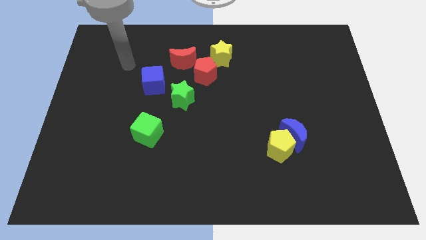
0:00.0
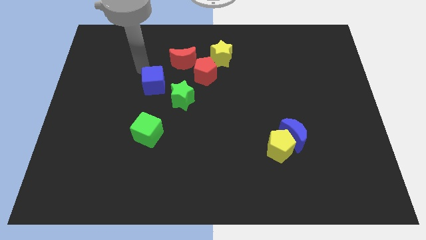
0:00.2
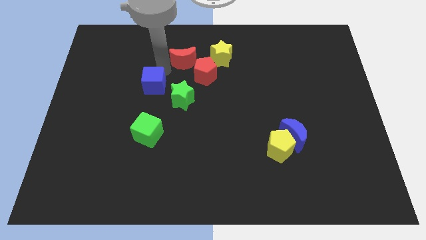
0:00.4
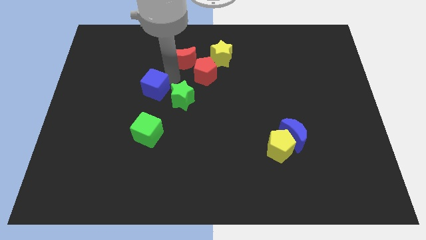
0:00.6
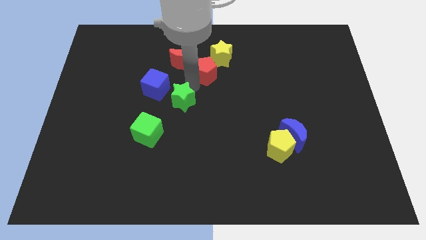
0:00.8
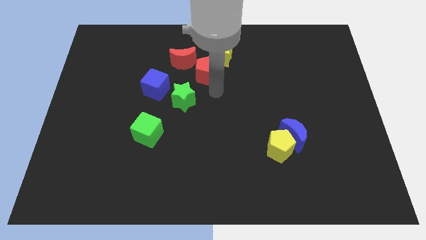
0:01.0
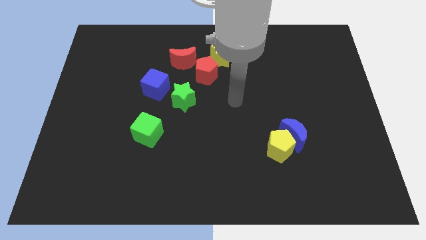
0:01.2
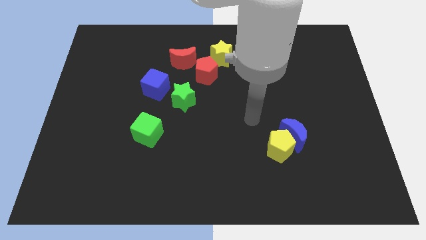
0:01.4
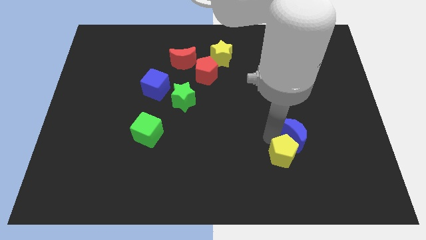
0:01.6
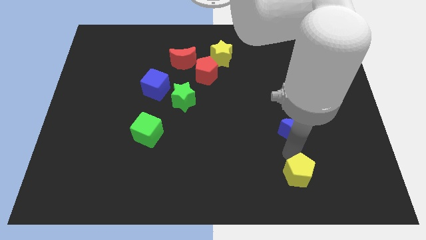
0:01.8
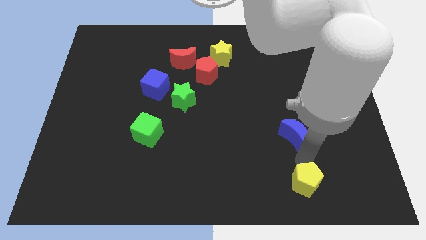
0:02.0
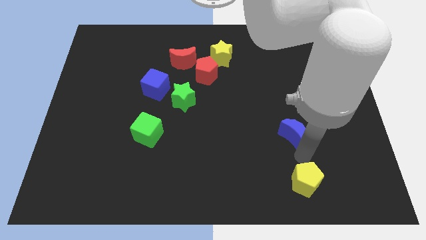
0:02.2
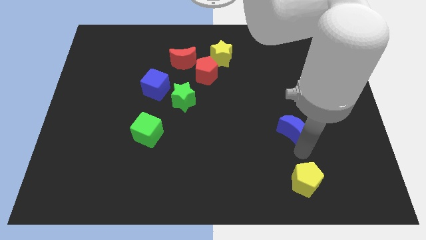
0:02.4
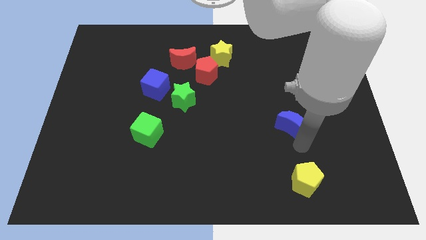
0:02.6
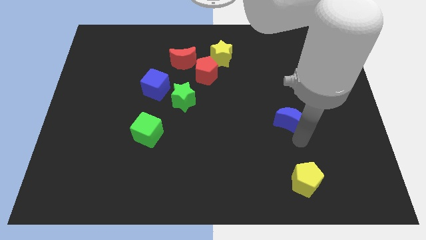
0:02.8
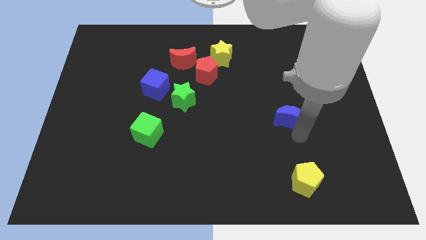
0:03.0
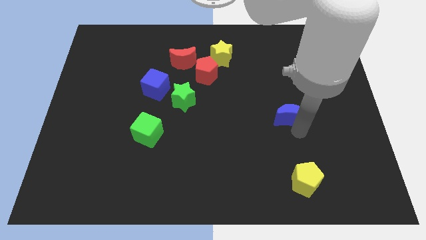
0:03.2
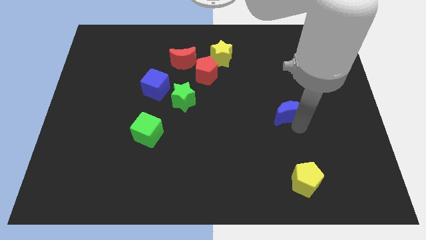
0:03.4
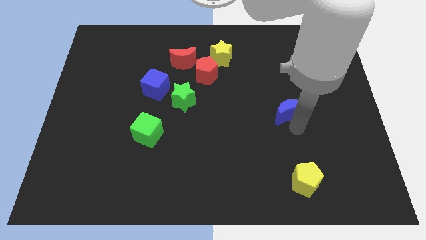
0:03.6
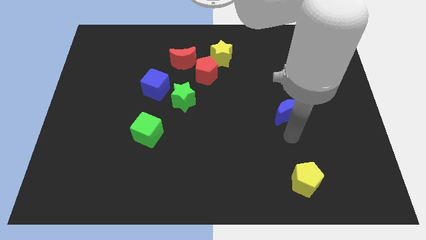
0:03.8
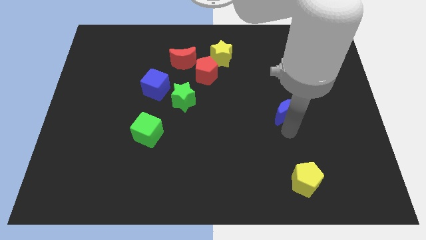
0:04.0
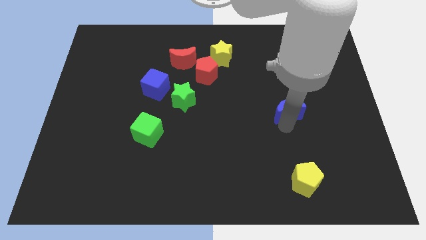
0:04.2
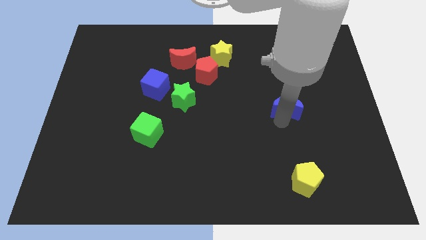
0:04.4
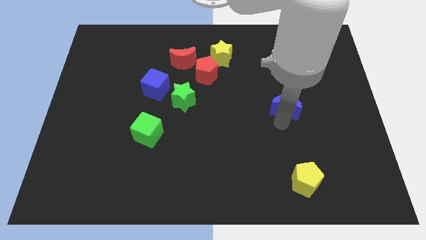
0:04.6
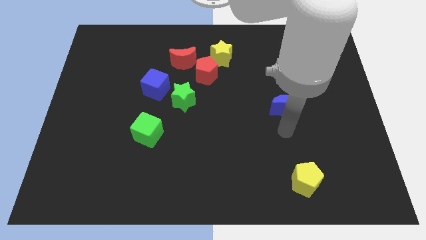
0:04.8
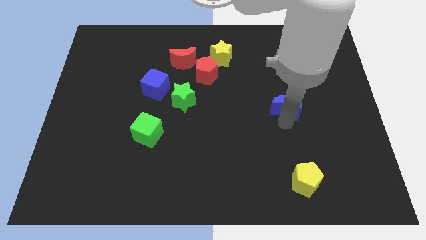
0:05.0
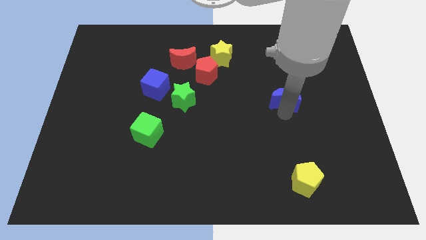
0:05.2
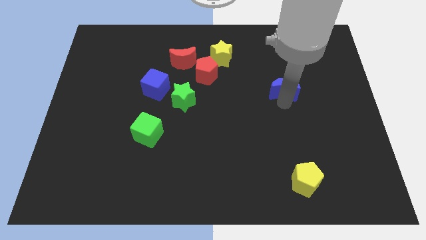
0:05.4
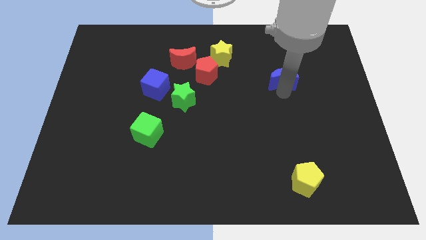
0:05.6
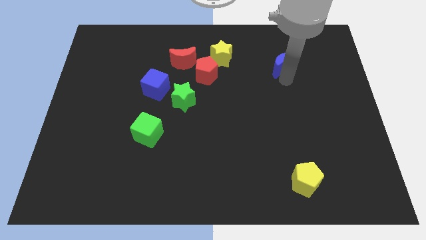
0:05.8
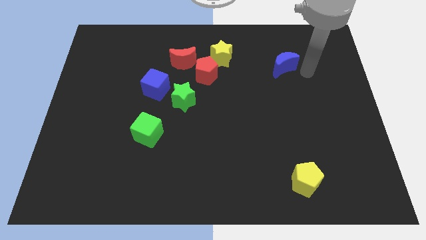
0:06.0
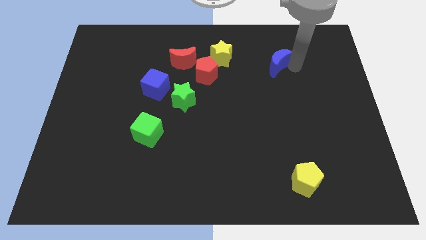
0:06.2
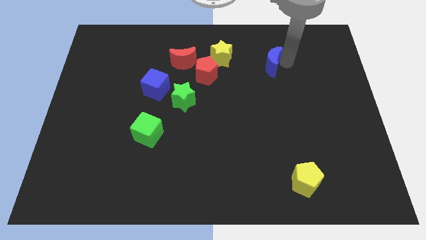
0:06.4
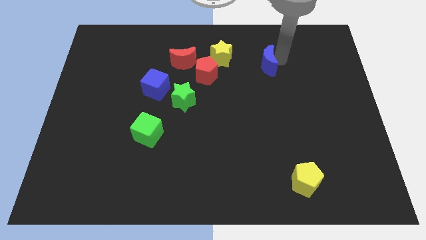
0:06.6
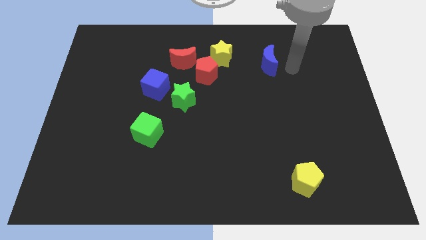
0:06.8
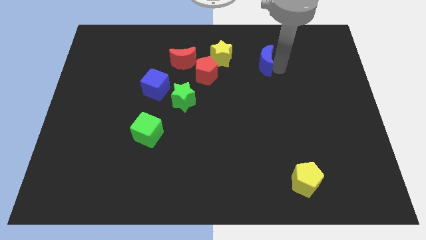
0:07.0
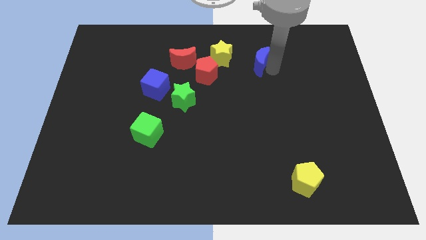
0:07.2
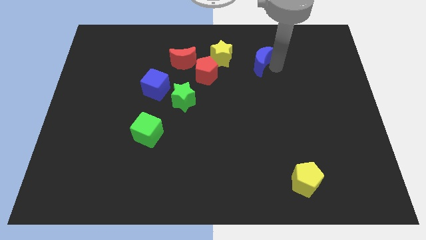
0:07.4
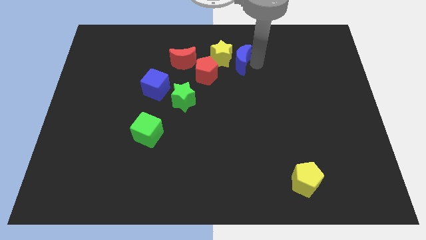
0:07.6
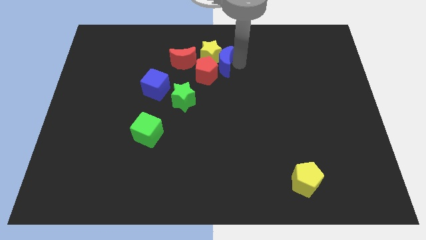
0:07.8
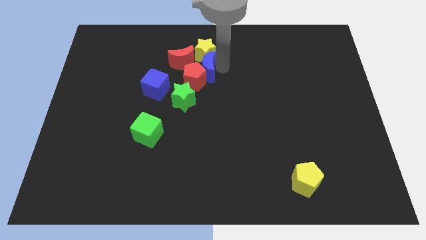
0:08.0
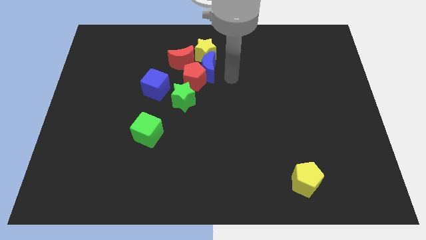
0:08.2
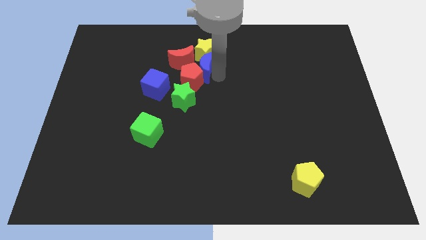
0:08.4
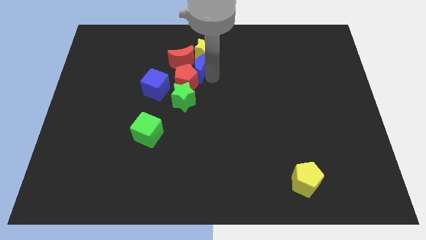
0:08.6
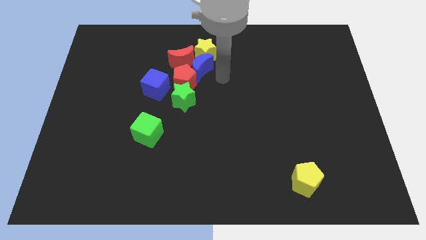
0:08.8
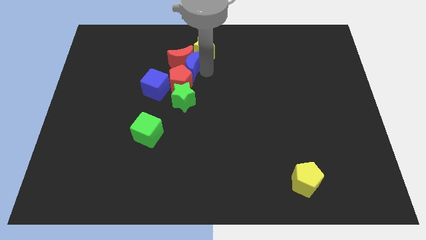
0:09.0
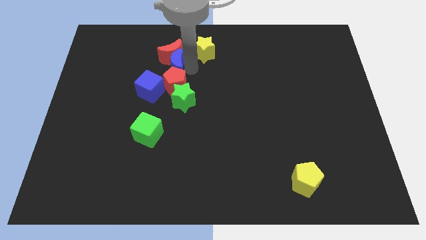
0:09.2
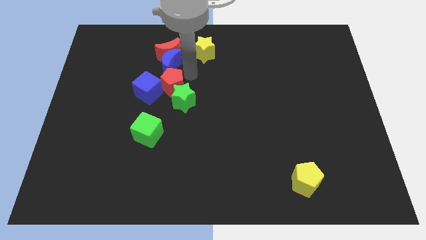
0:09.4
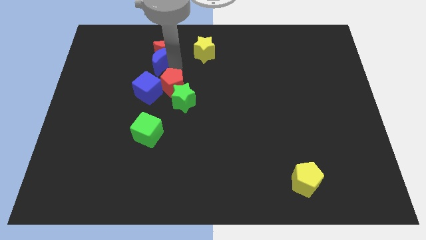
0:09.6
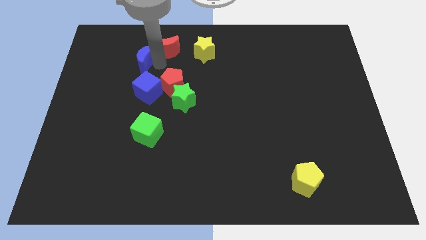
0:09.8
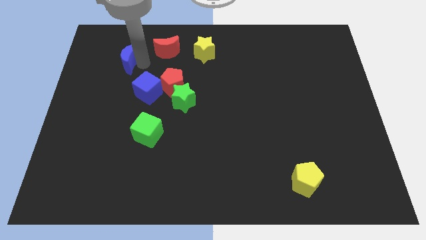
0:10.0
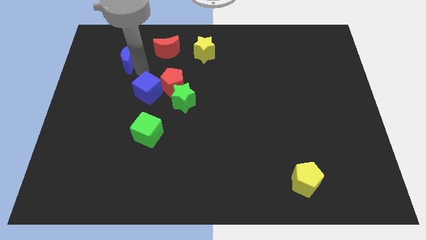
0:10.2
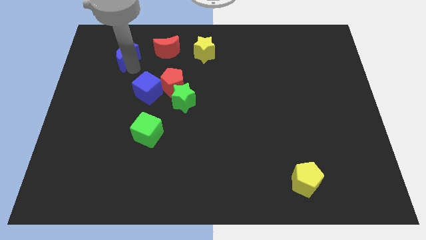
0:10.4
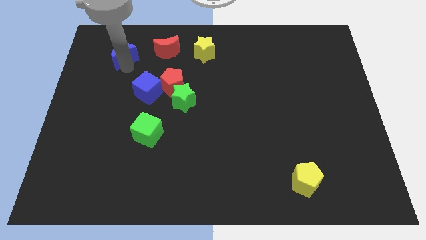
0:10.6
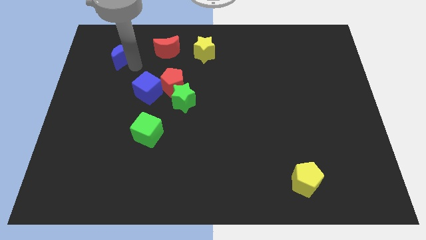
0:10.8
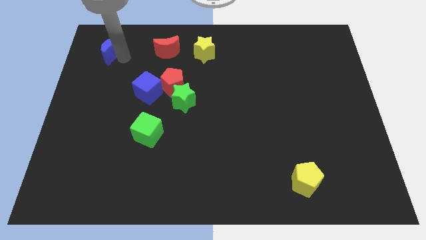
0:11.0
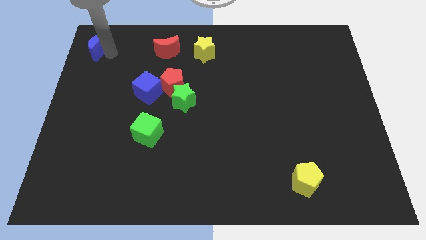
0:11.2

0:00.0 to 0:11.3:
move the blue moon to the top left

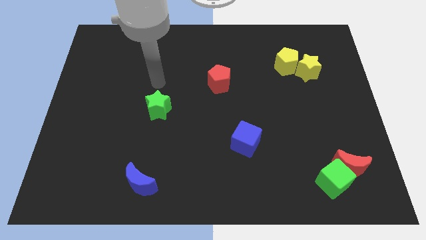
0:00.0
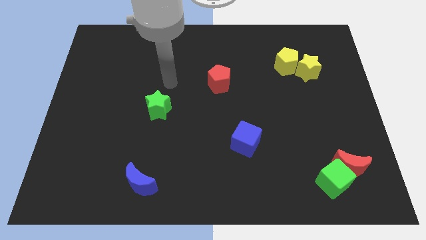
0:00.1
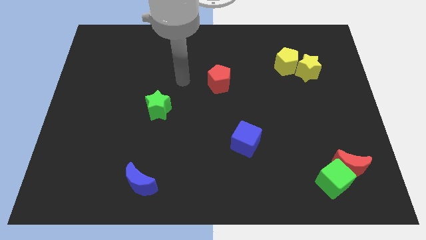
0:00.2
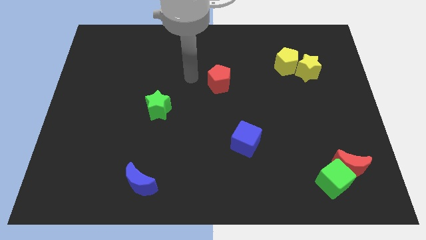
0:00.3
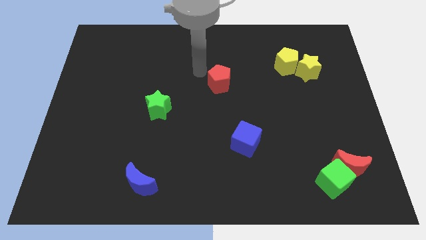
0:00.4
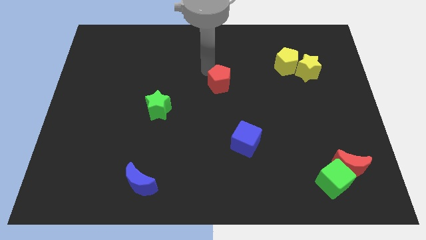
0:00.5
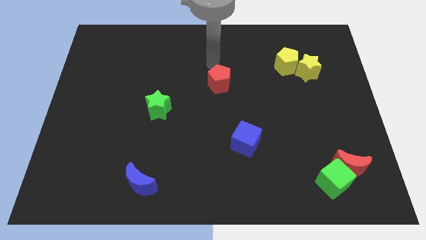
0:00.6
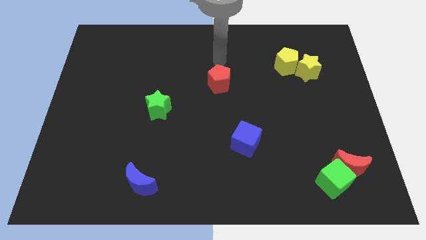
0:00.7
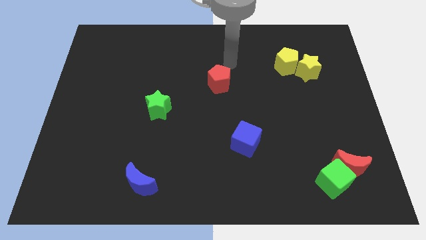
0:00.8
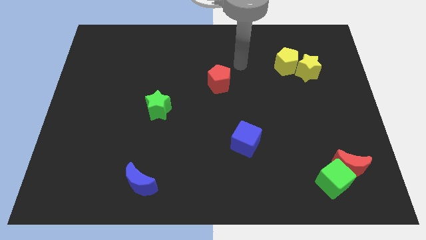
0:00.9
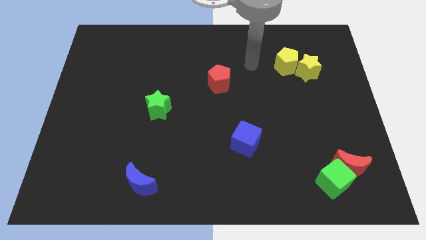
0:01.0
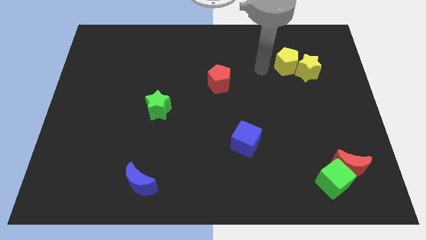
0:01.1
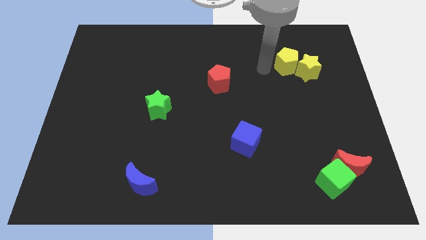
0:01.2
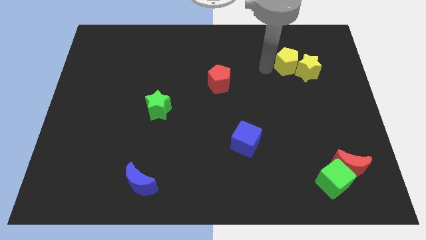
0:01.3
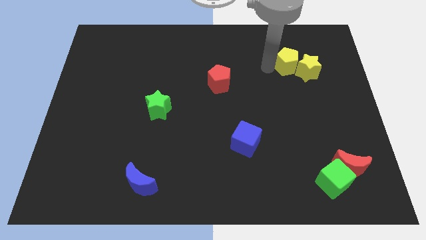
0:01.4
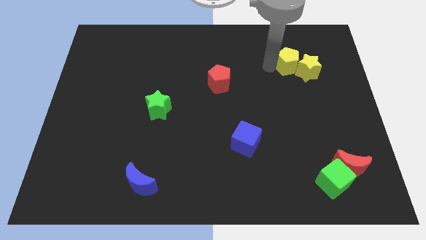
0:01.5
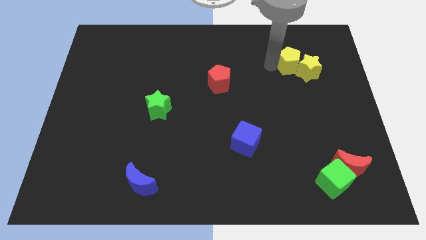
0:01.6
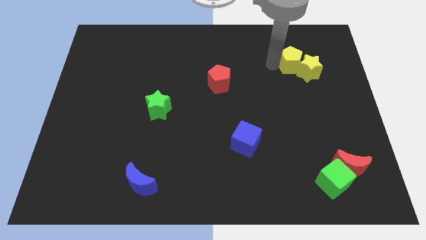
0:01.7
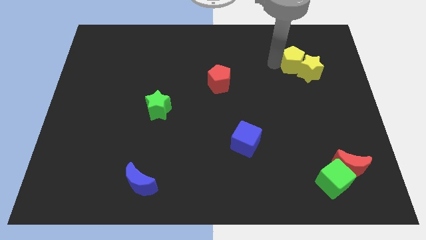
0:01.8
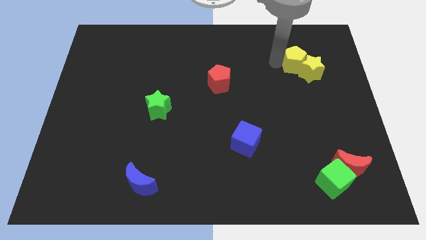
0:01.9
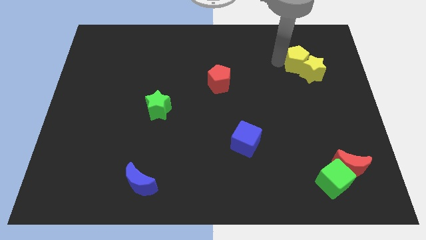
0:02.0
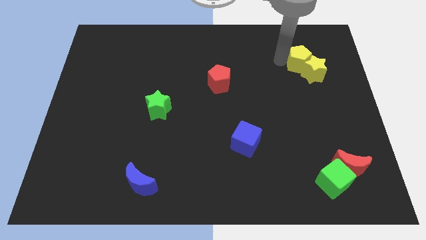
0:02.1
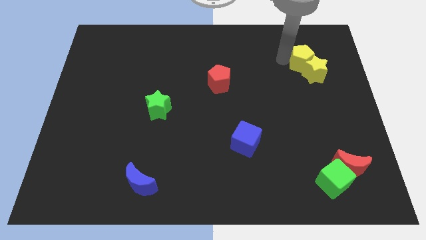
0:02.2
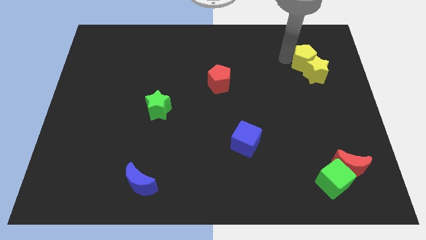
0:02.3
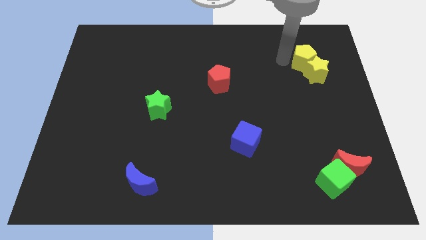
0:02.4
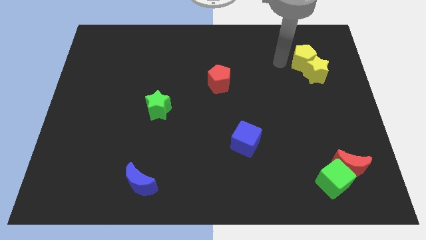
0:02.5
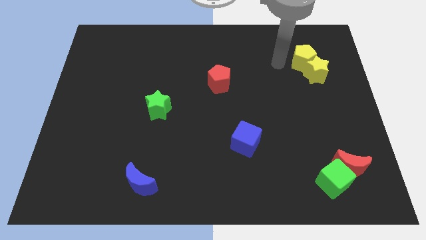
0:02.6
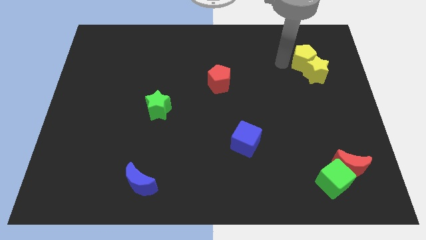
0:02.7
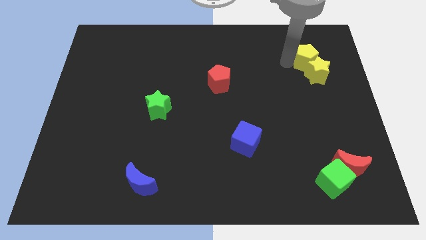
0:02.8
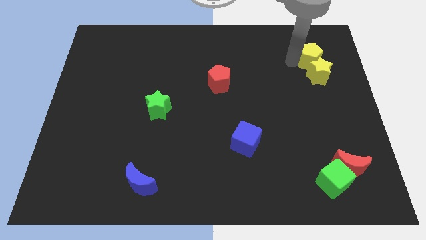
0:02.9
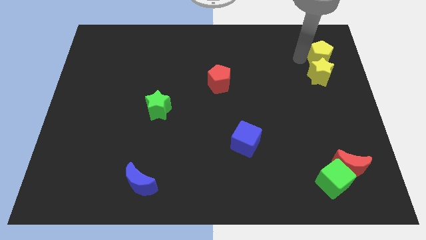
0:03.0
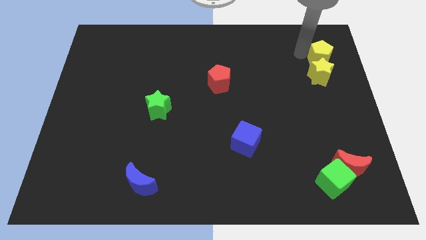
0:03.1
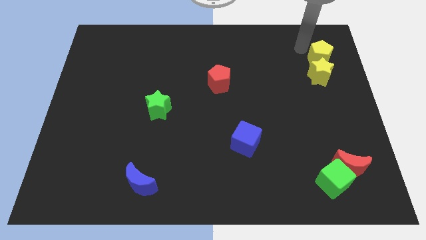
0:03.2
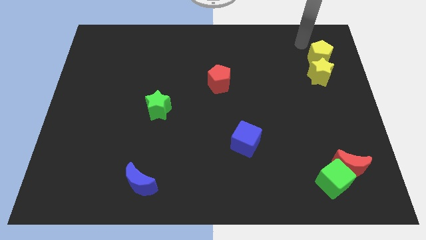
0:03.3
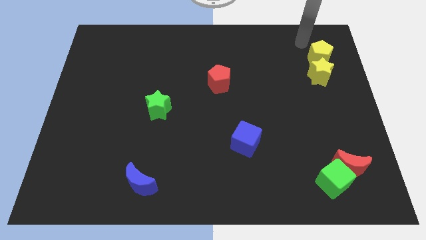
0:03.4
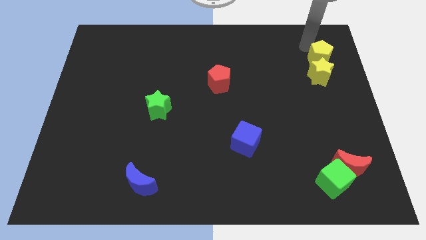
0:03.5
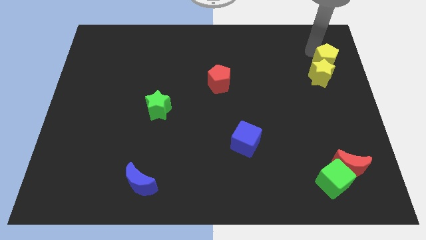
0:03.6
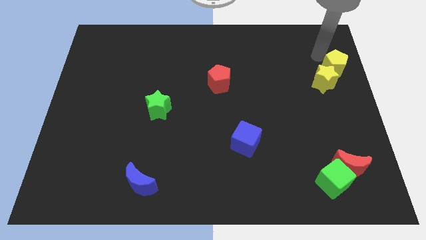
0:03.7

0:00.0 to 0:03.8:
slide the yellow pentagon to the right side of the board
